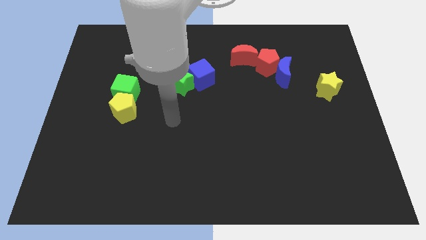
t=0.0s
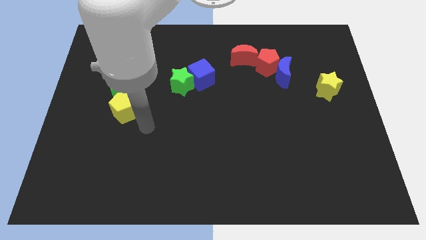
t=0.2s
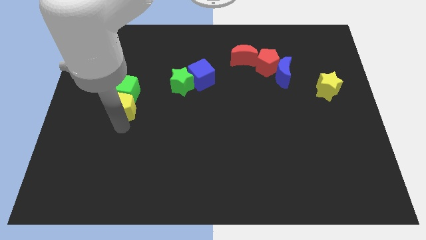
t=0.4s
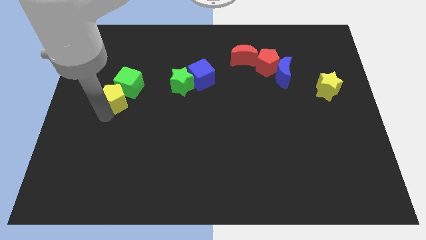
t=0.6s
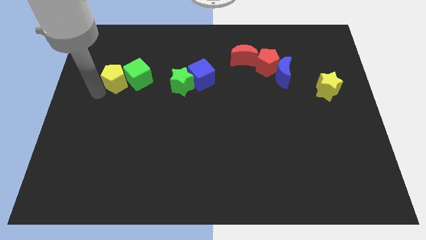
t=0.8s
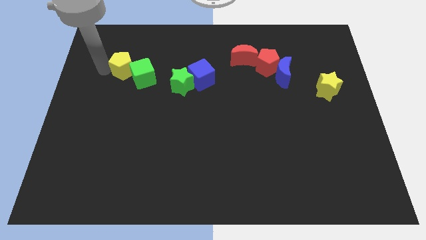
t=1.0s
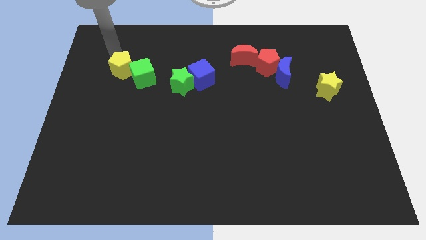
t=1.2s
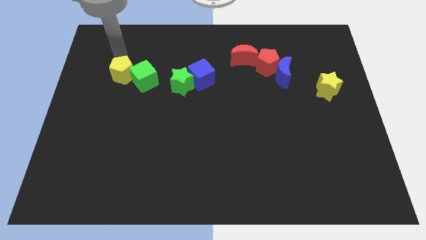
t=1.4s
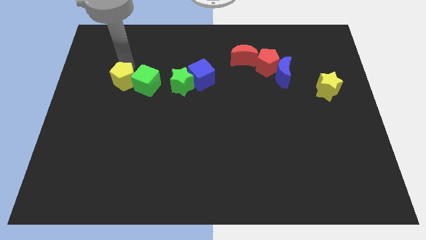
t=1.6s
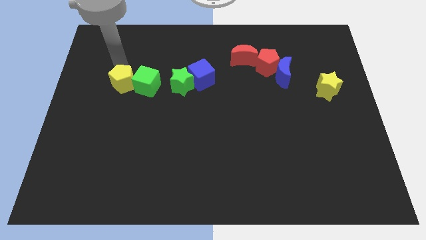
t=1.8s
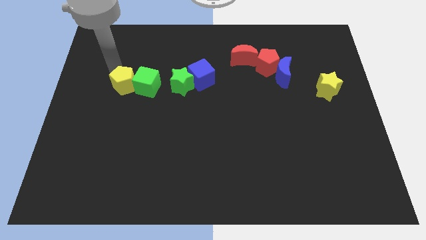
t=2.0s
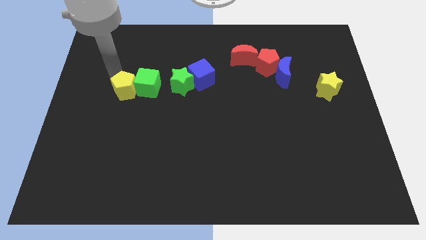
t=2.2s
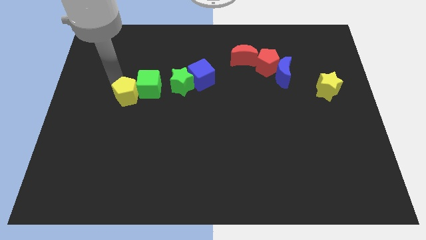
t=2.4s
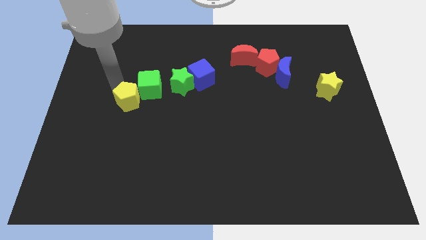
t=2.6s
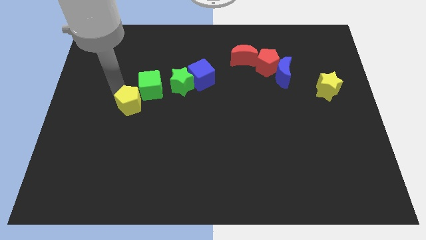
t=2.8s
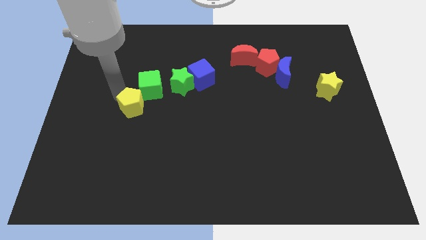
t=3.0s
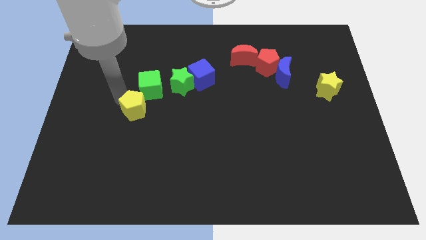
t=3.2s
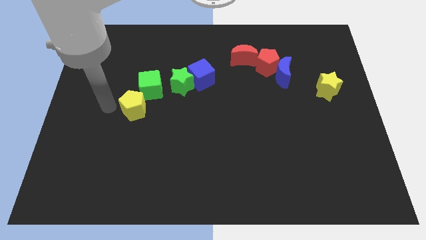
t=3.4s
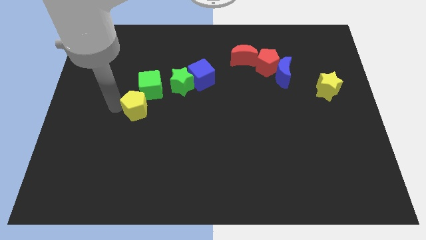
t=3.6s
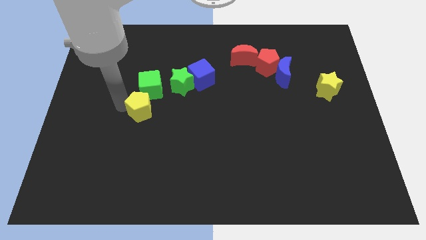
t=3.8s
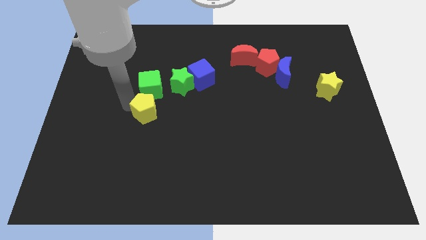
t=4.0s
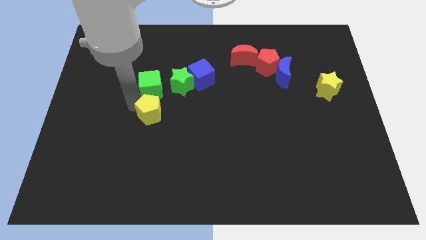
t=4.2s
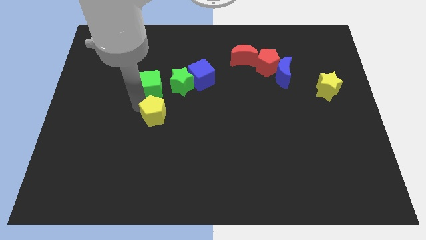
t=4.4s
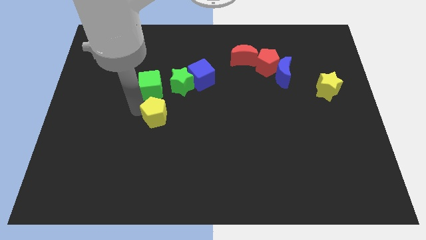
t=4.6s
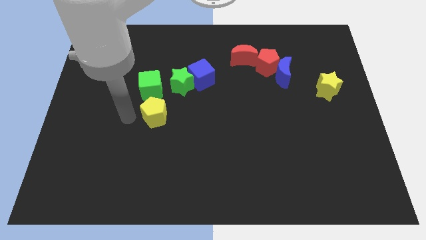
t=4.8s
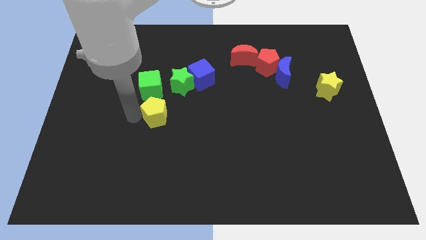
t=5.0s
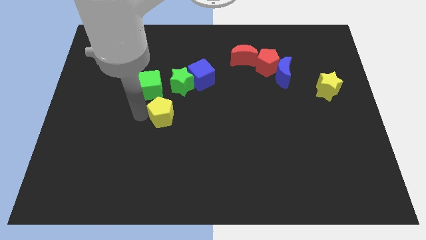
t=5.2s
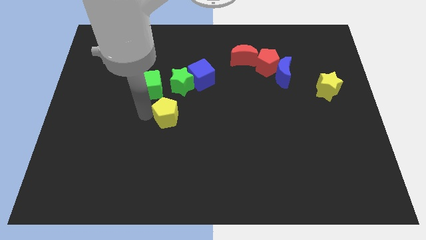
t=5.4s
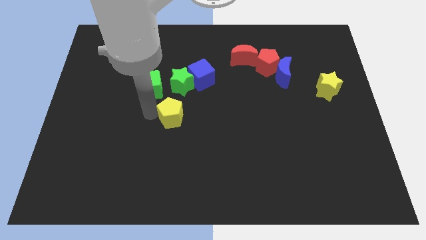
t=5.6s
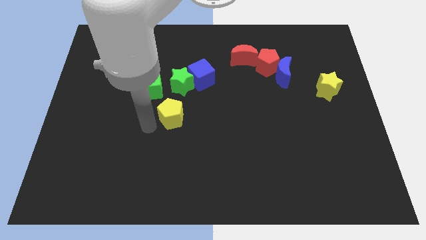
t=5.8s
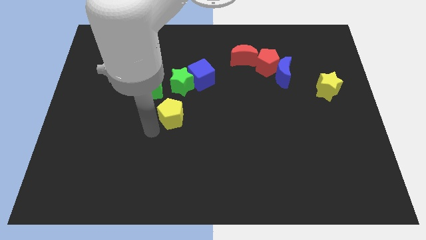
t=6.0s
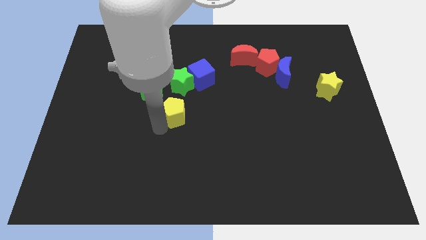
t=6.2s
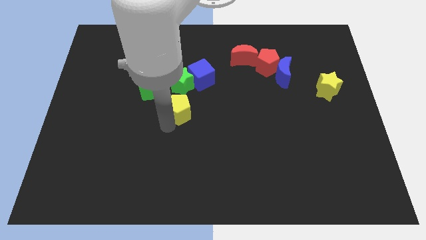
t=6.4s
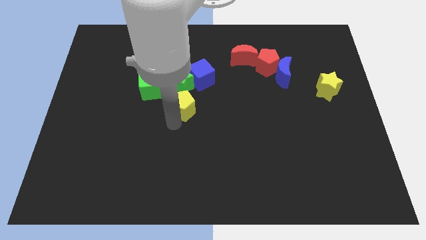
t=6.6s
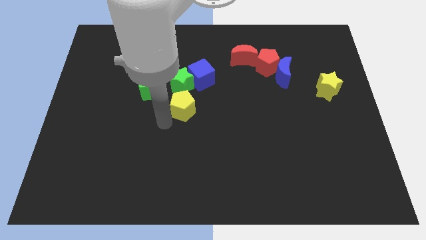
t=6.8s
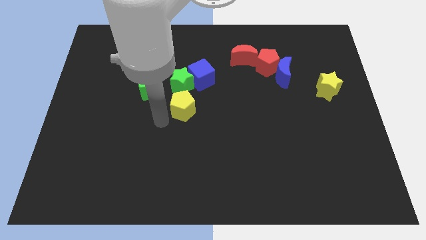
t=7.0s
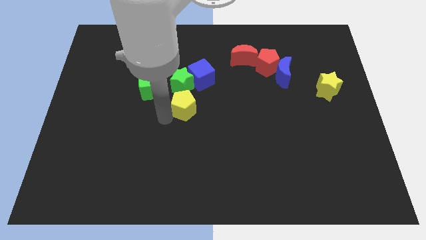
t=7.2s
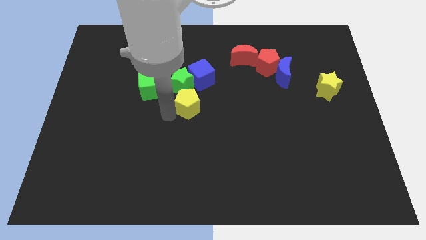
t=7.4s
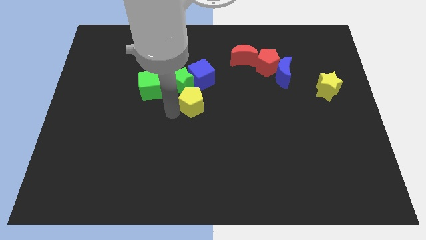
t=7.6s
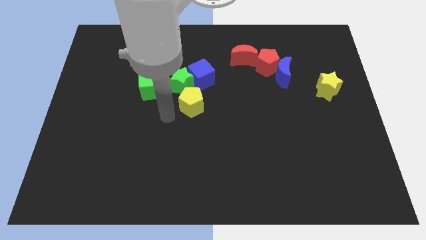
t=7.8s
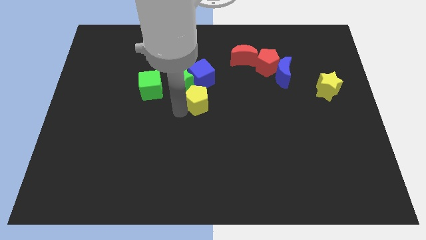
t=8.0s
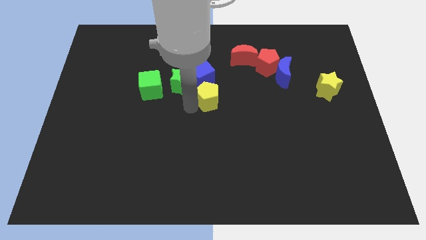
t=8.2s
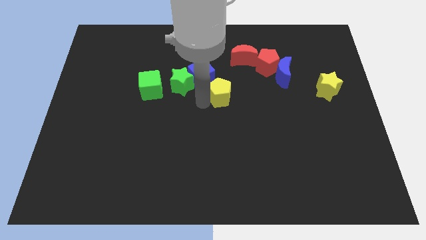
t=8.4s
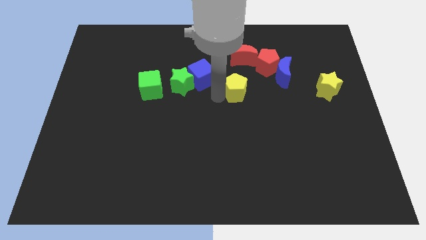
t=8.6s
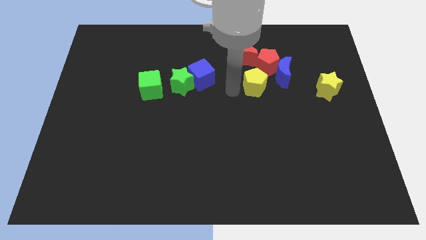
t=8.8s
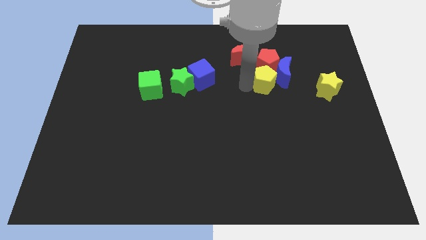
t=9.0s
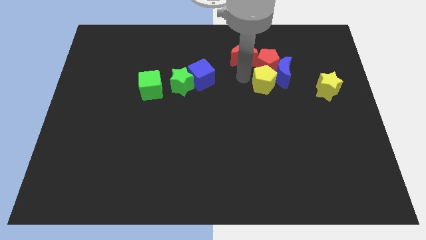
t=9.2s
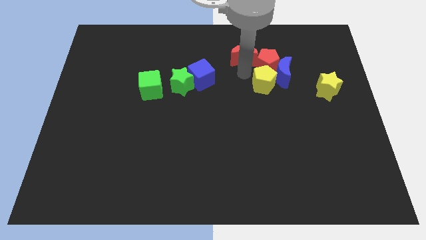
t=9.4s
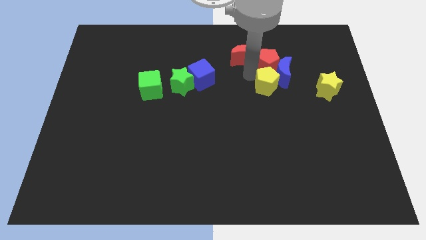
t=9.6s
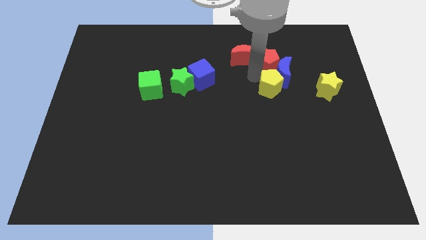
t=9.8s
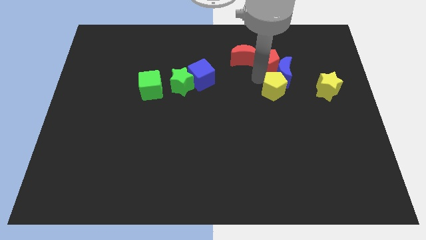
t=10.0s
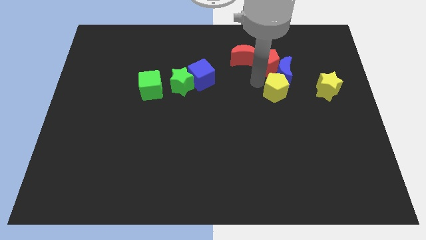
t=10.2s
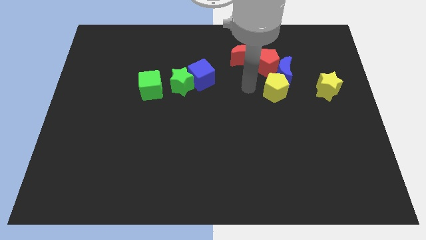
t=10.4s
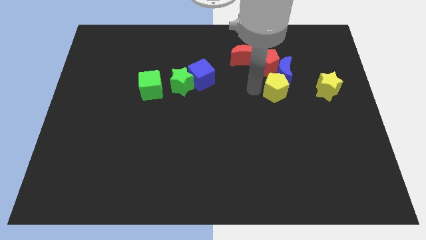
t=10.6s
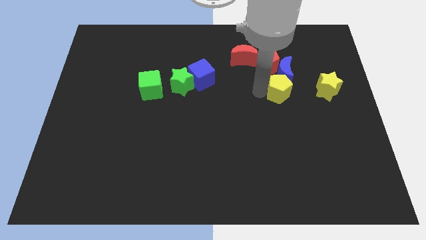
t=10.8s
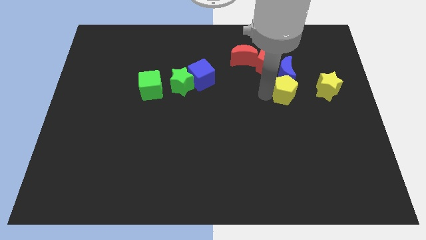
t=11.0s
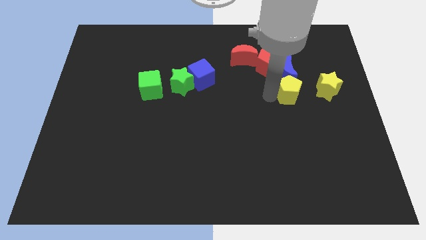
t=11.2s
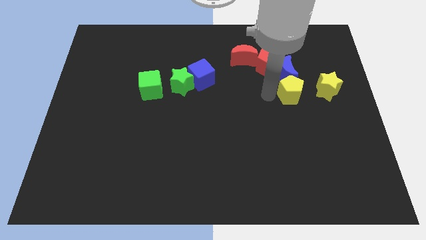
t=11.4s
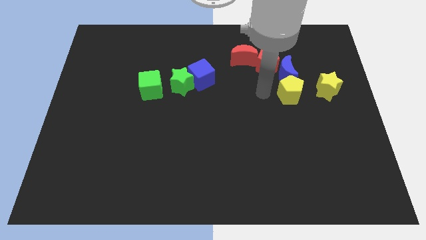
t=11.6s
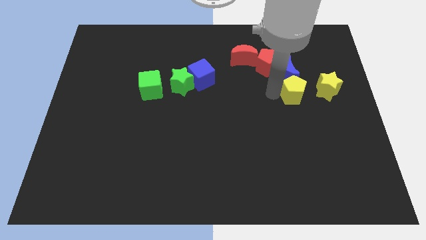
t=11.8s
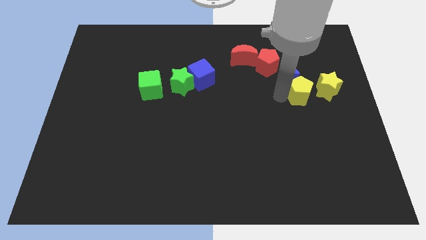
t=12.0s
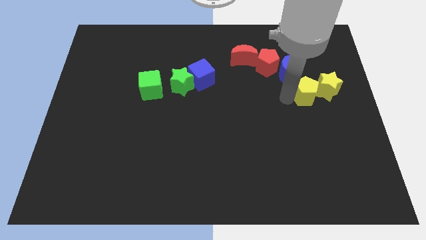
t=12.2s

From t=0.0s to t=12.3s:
move the yellow pentagon towards the yellow star

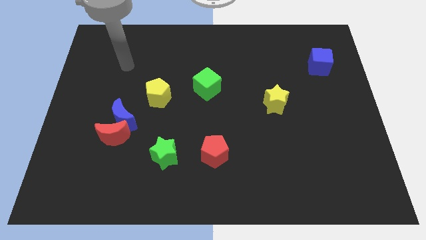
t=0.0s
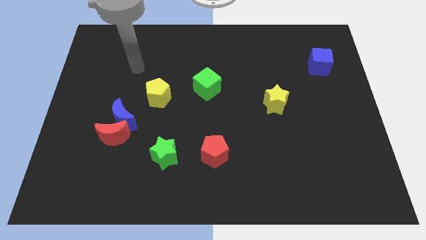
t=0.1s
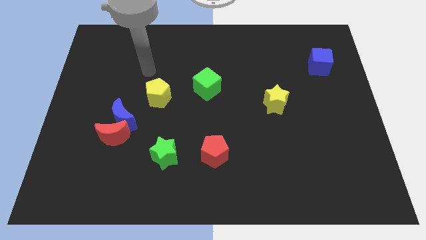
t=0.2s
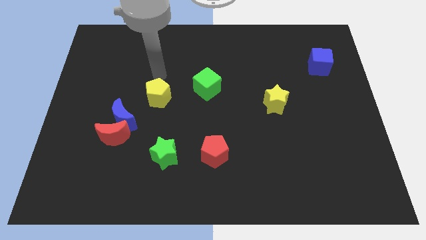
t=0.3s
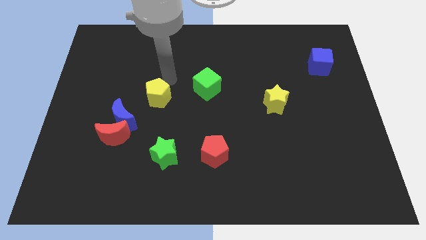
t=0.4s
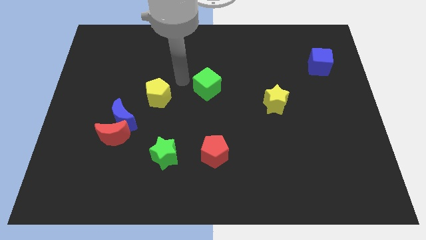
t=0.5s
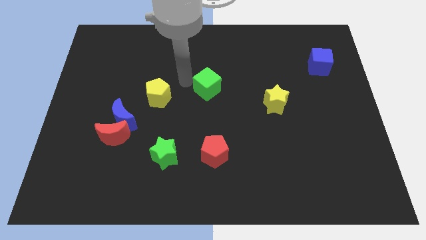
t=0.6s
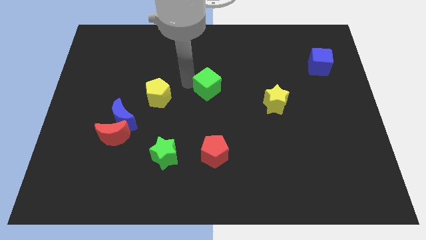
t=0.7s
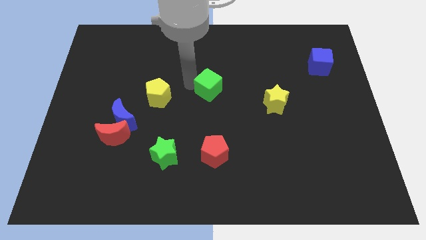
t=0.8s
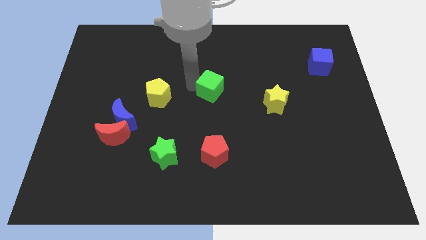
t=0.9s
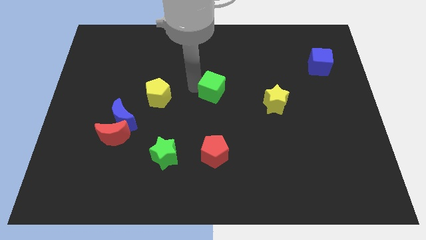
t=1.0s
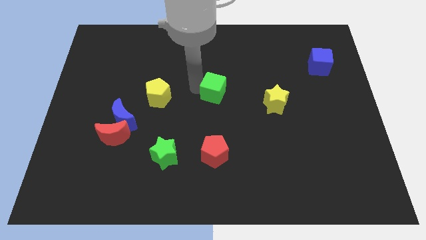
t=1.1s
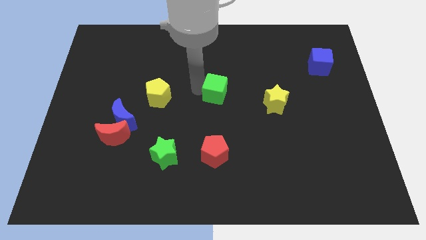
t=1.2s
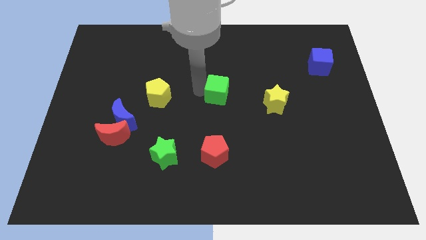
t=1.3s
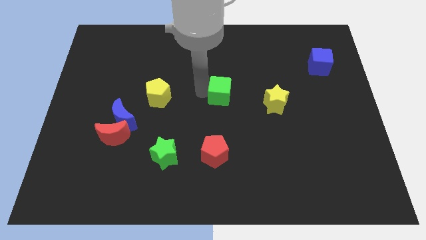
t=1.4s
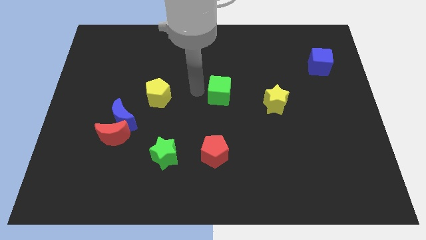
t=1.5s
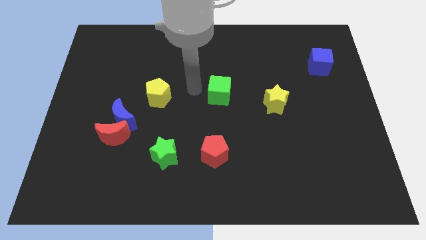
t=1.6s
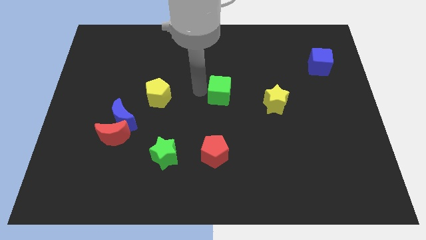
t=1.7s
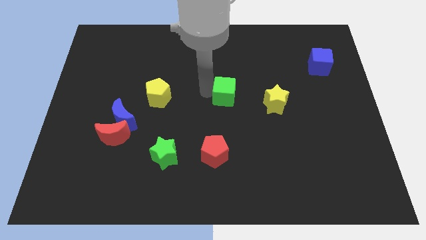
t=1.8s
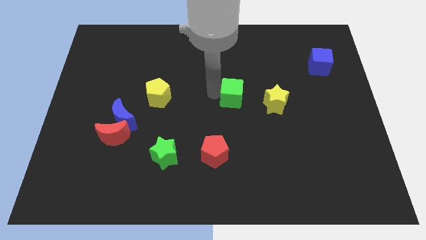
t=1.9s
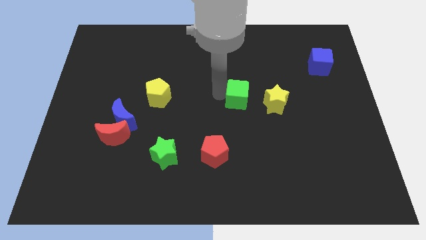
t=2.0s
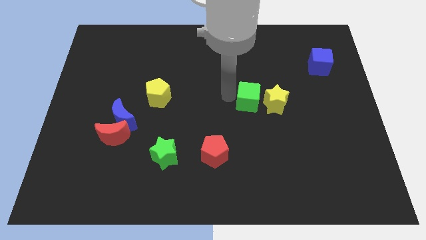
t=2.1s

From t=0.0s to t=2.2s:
move the green cube close to the yellow star
